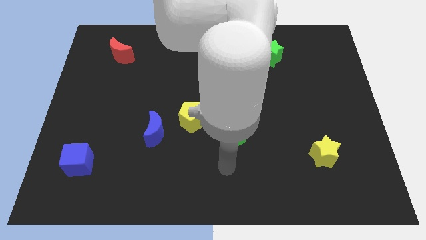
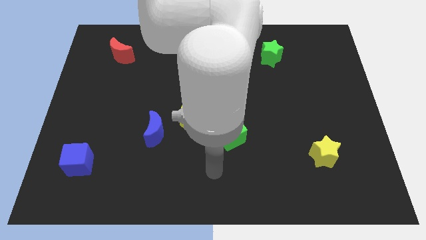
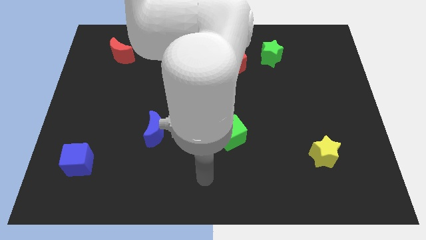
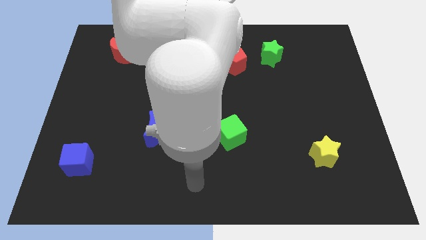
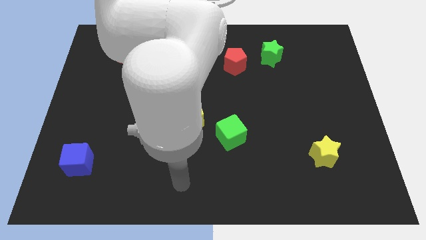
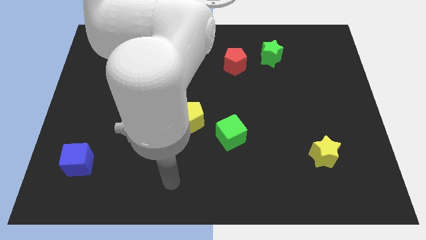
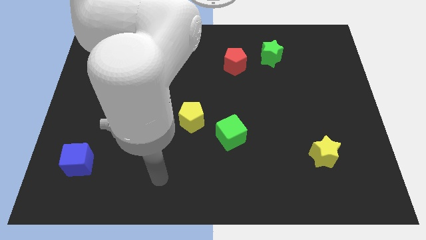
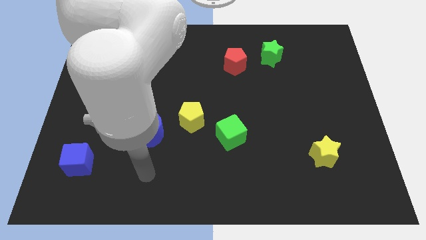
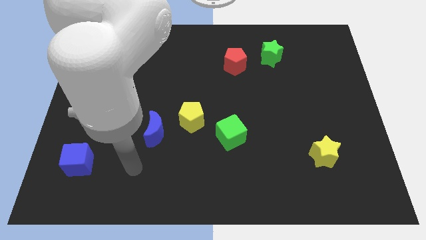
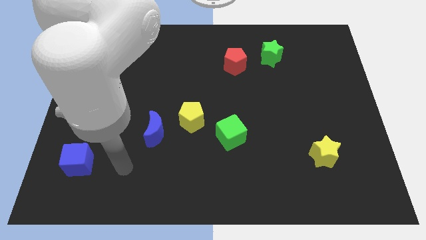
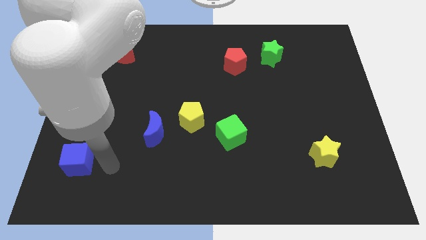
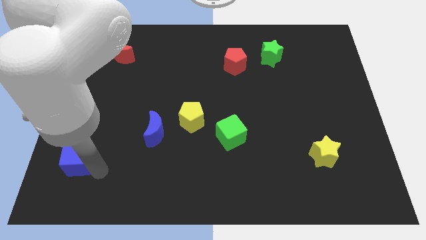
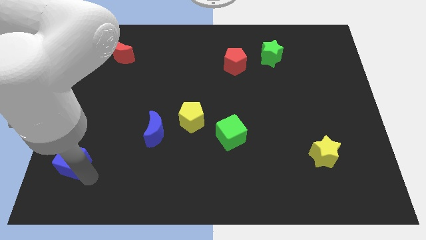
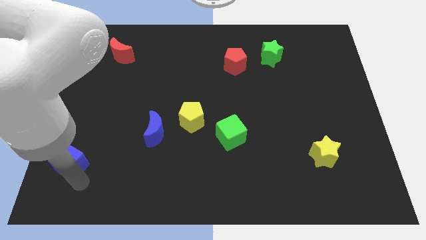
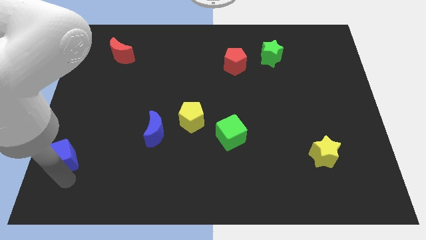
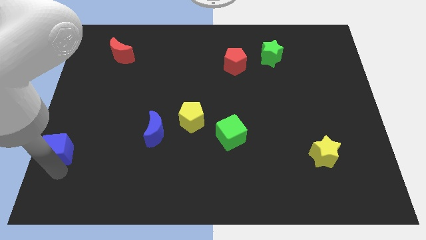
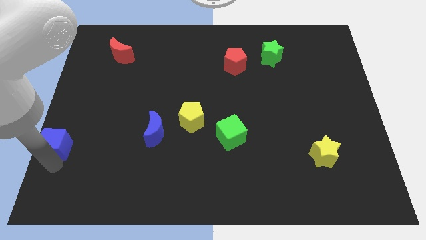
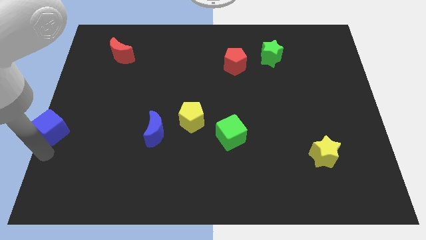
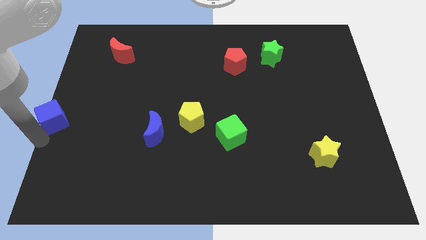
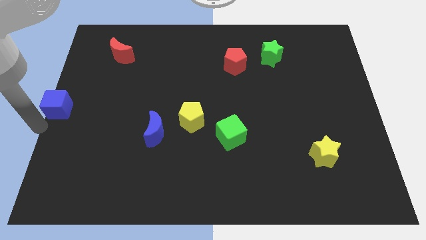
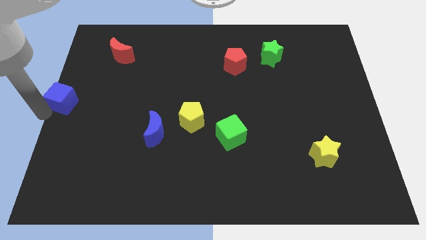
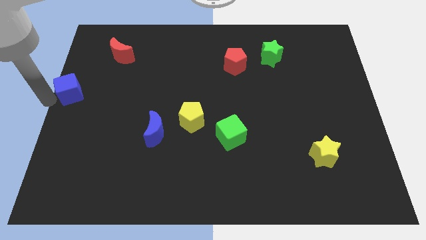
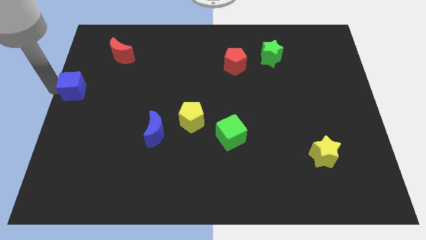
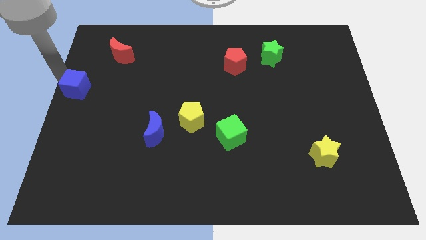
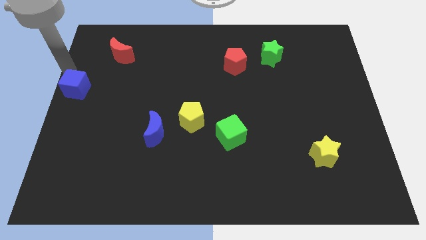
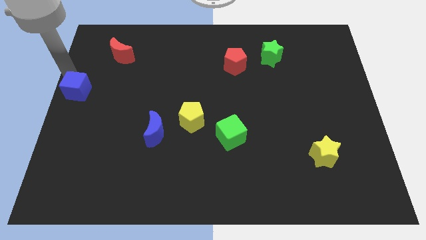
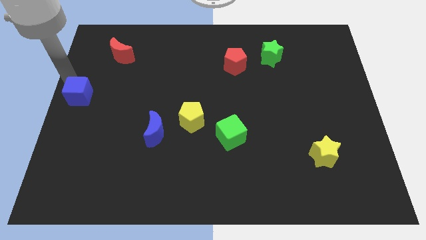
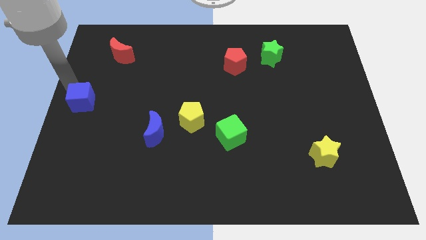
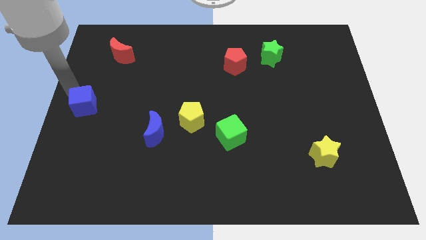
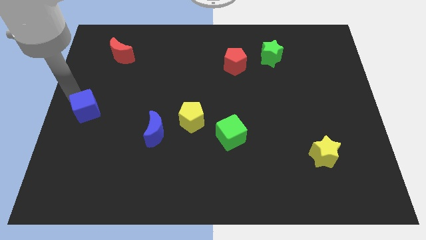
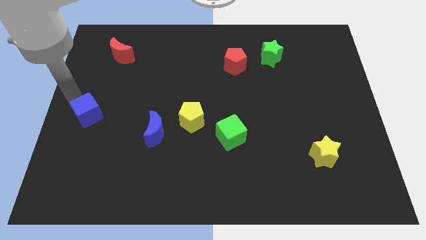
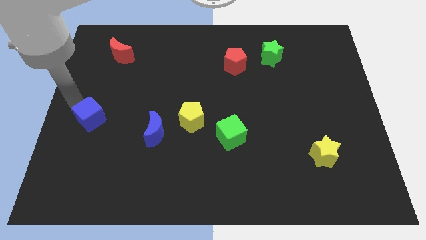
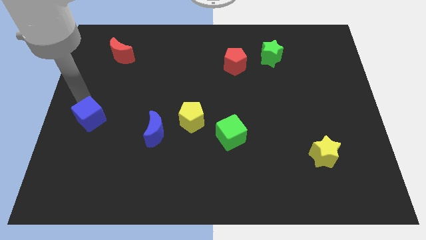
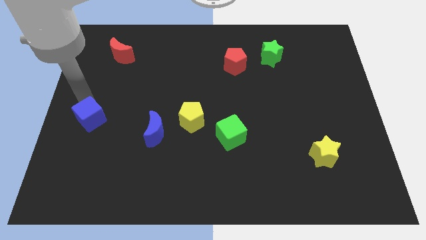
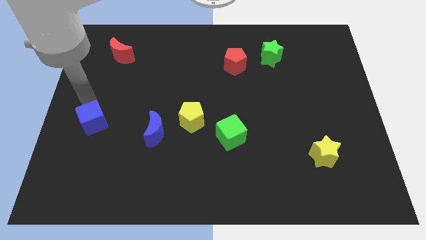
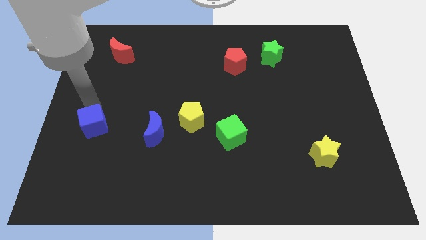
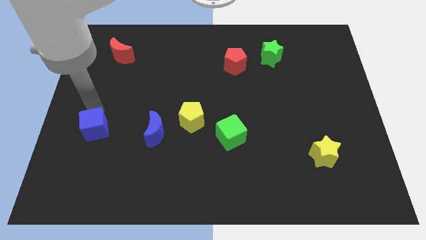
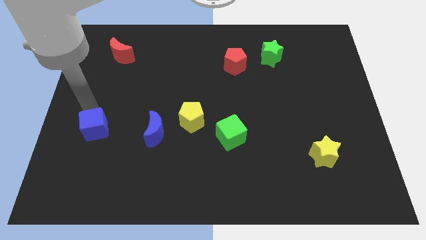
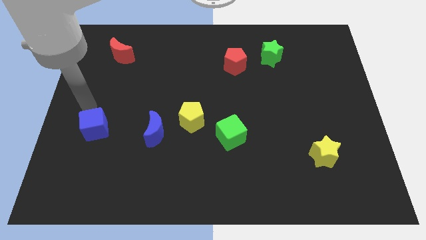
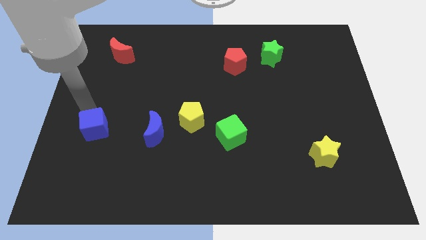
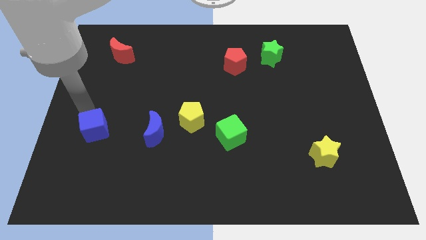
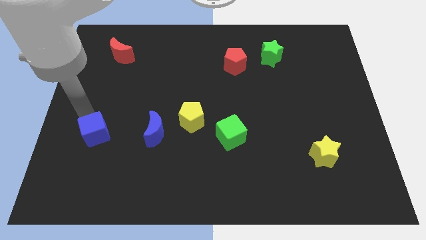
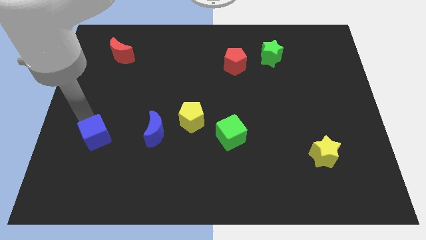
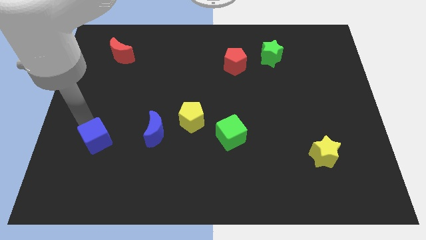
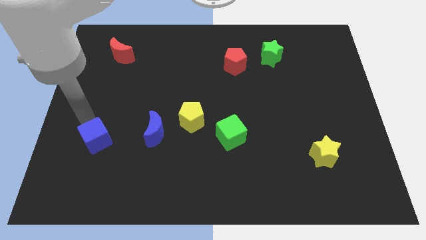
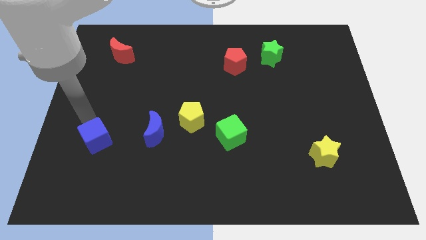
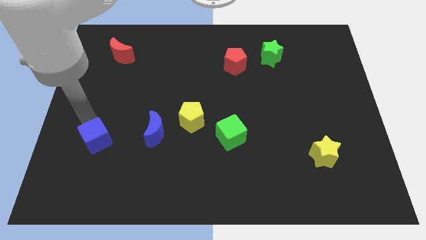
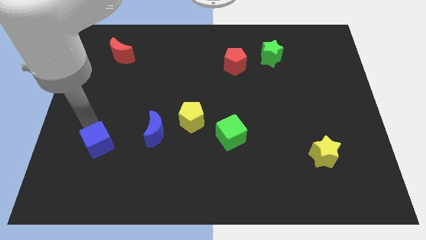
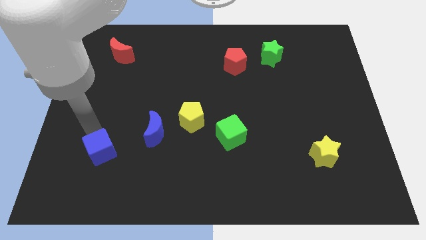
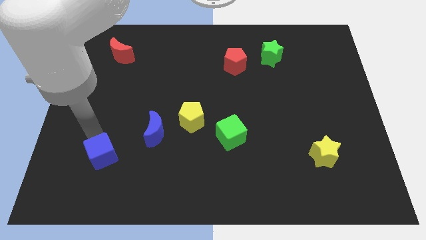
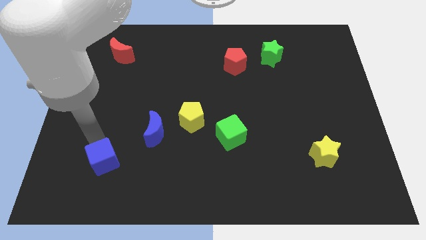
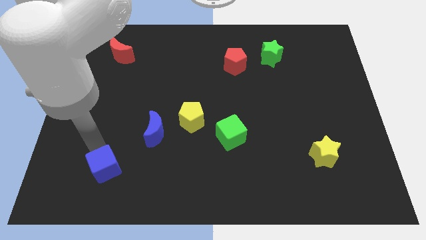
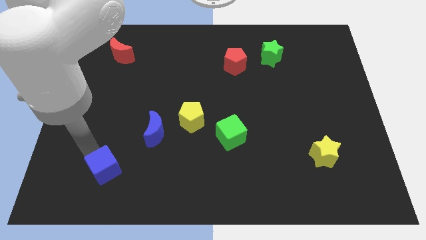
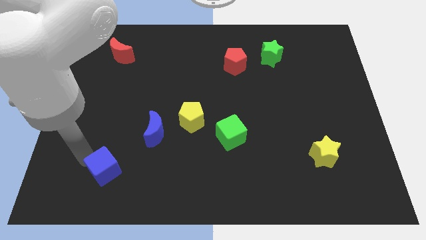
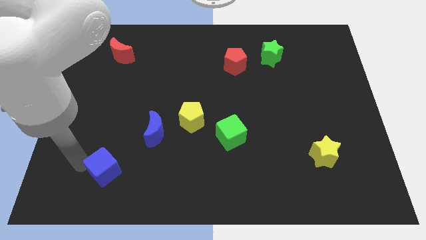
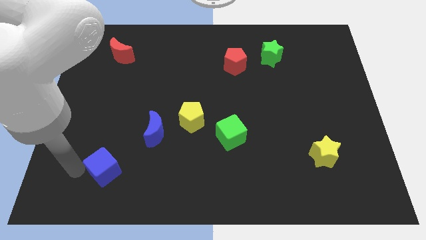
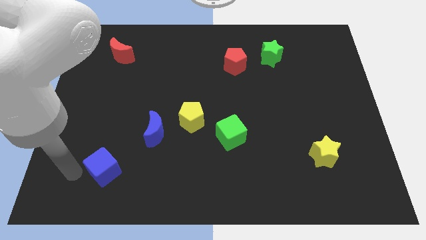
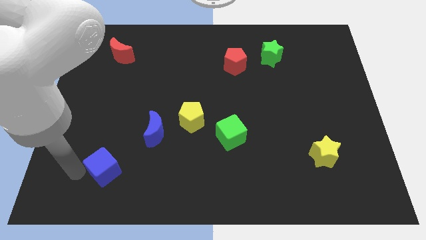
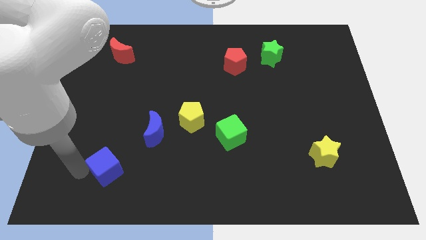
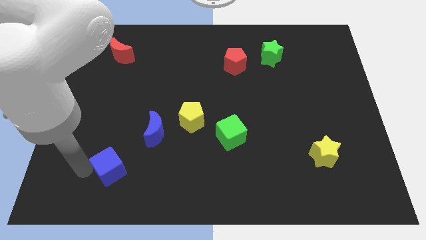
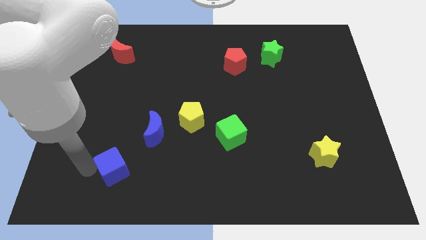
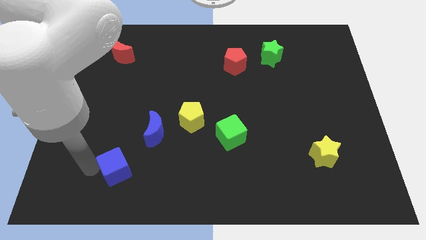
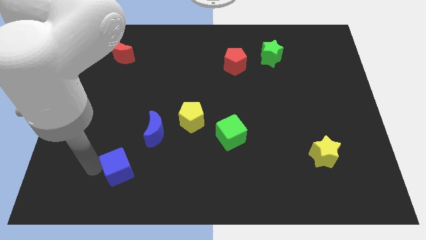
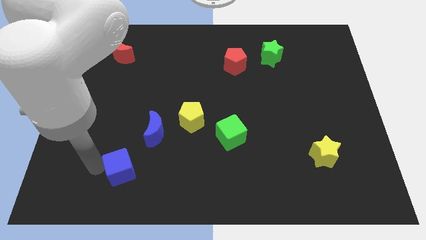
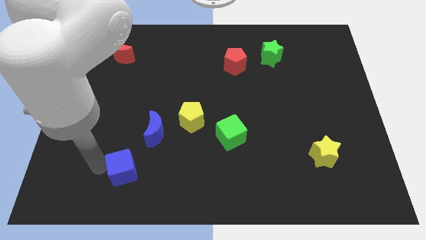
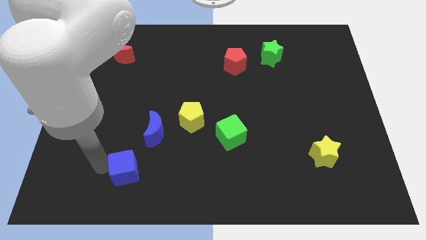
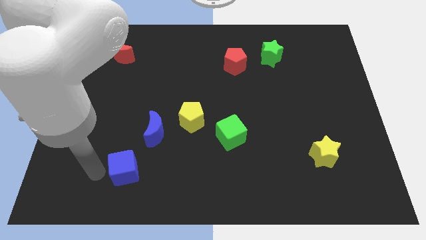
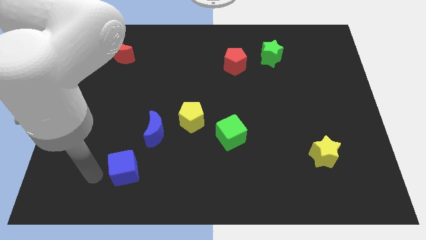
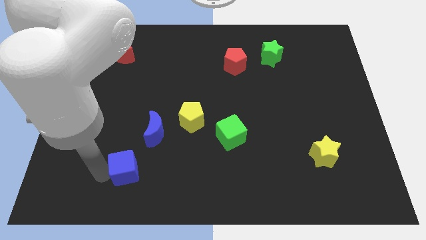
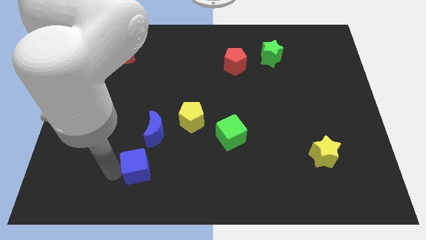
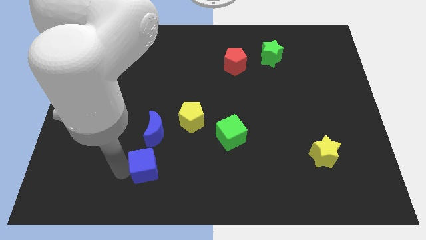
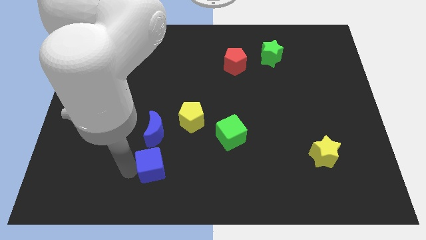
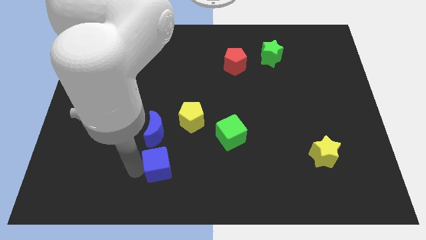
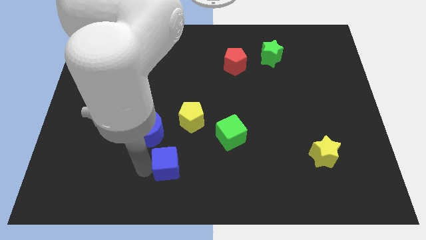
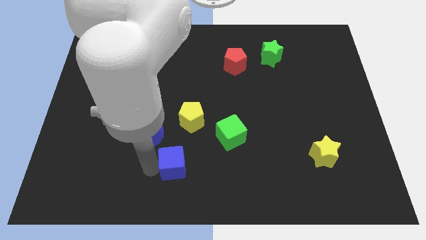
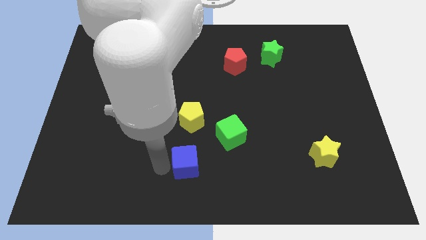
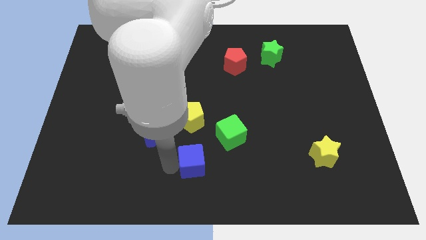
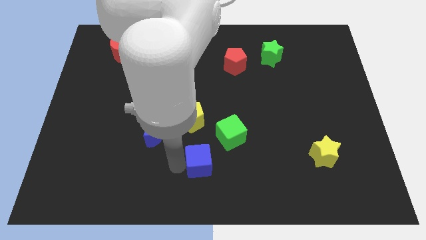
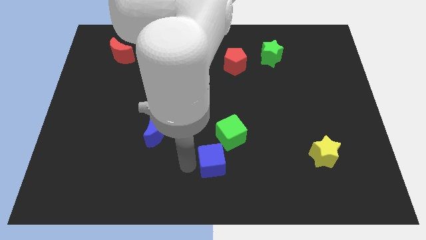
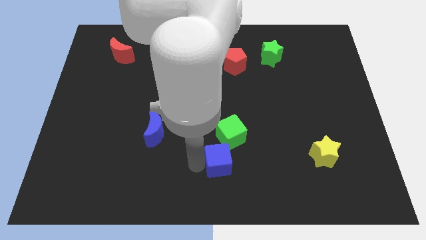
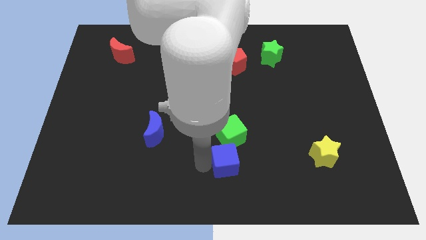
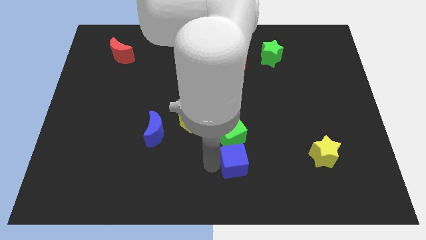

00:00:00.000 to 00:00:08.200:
move the blue cube to the bottom right of the green cube
